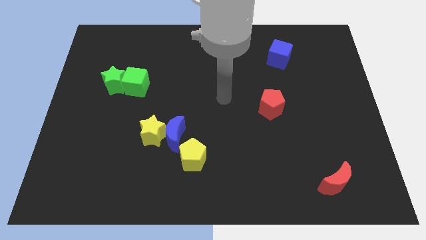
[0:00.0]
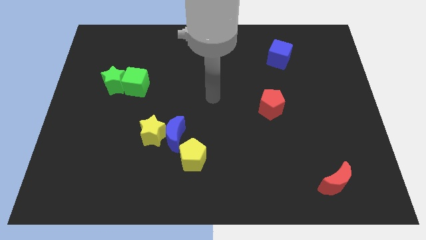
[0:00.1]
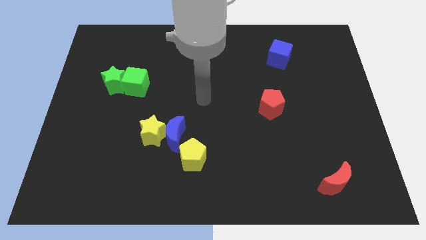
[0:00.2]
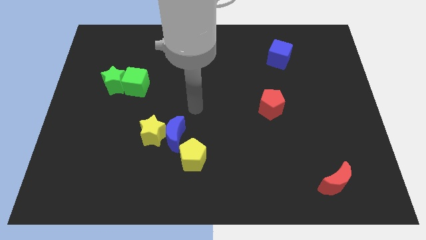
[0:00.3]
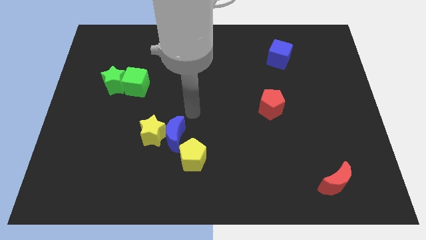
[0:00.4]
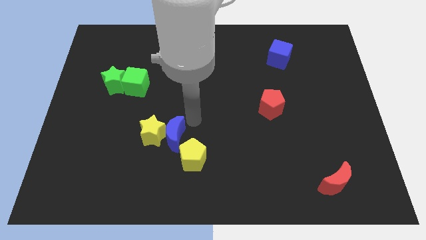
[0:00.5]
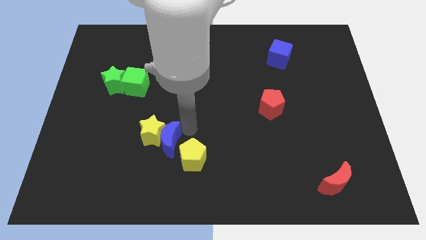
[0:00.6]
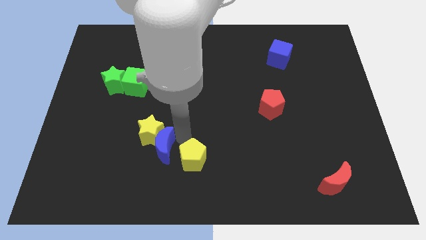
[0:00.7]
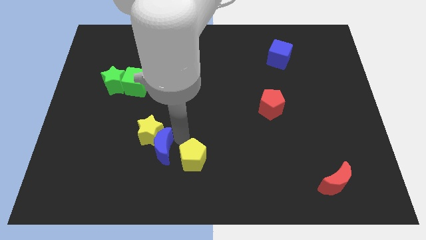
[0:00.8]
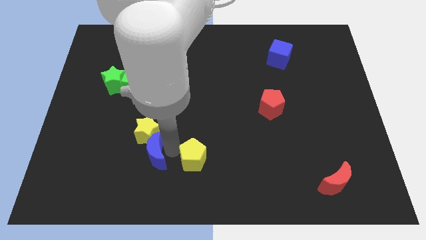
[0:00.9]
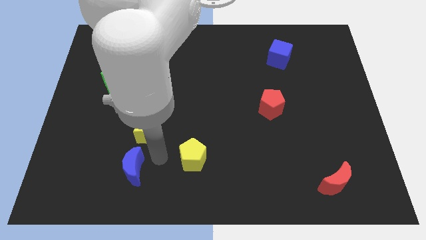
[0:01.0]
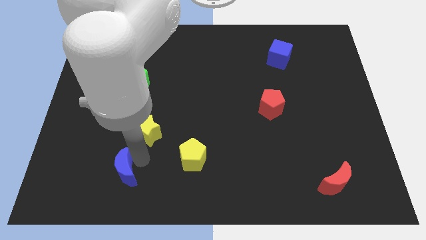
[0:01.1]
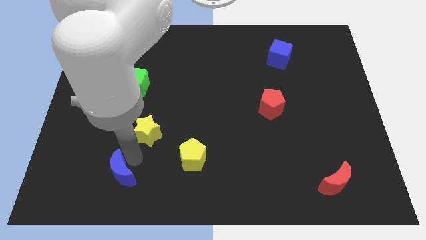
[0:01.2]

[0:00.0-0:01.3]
pull the yellow star apart from the blue moon

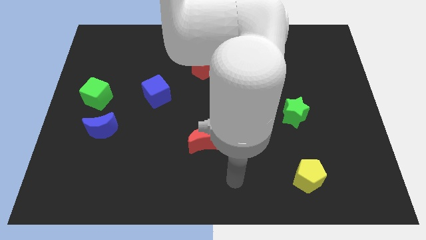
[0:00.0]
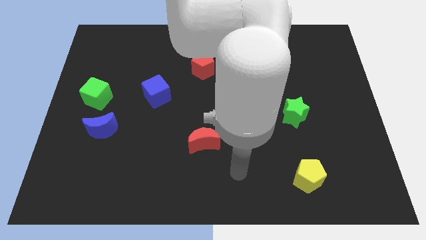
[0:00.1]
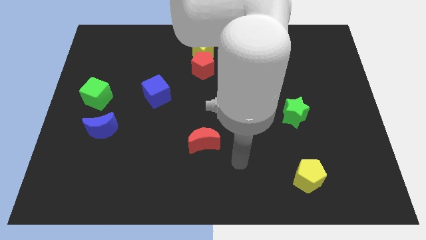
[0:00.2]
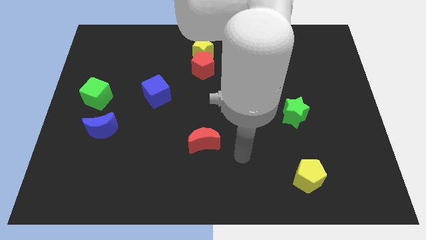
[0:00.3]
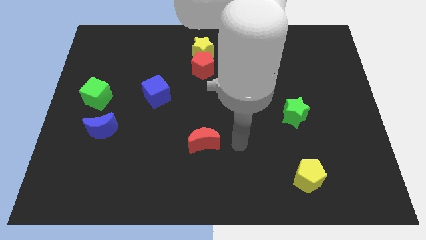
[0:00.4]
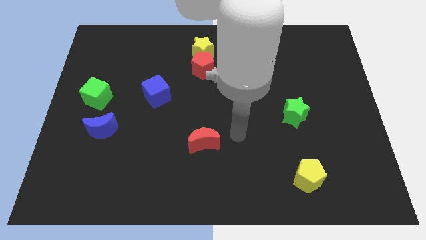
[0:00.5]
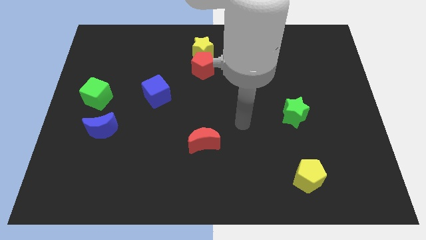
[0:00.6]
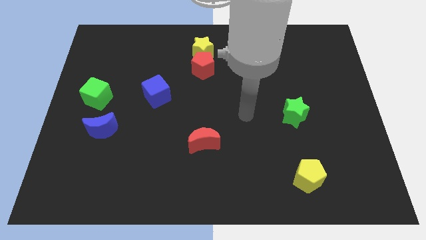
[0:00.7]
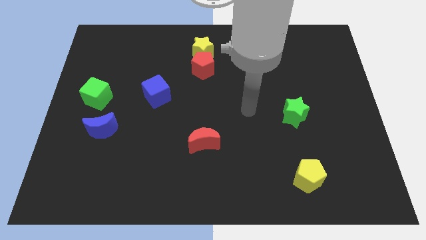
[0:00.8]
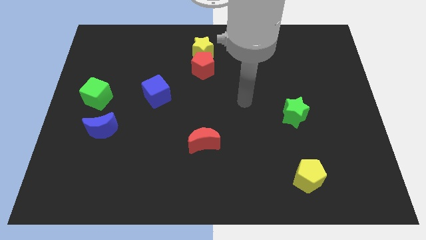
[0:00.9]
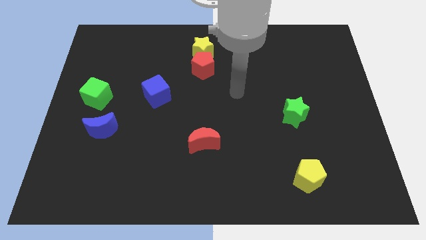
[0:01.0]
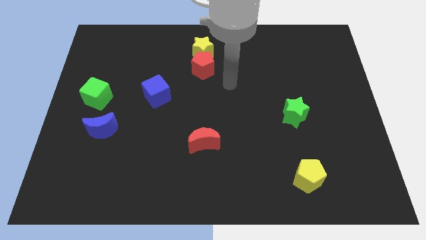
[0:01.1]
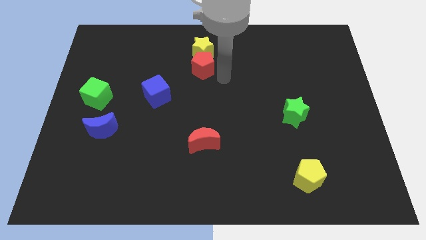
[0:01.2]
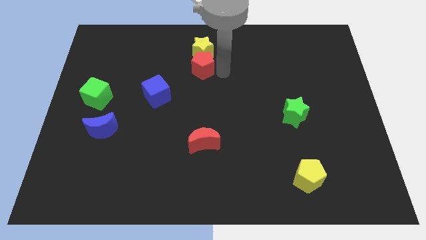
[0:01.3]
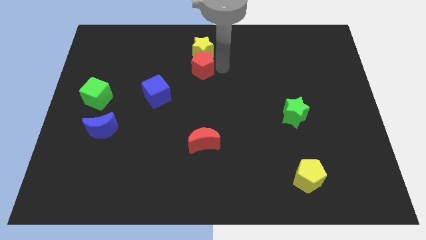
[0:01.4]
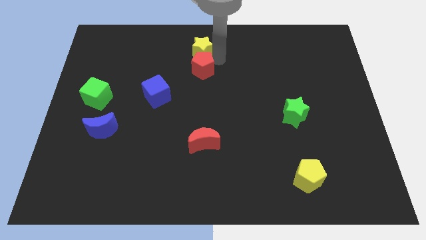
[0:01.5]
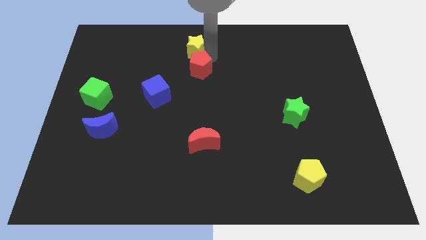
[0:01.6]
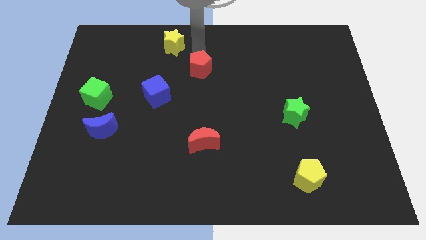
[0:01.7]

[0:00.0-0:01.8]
separate the red pentagon from the yellow star

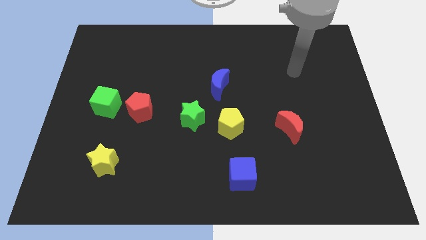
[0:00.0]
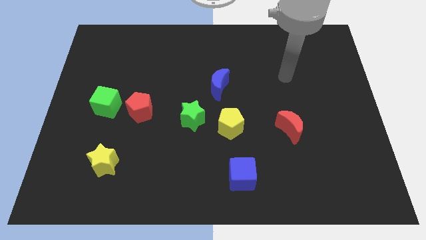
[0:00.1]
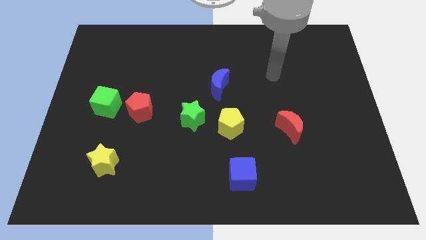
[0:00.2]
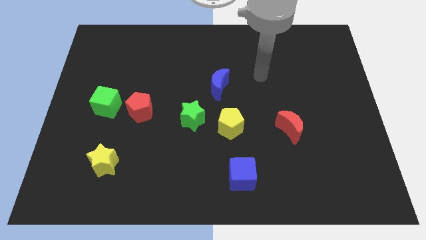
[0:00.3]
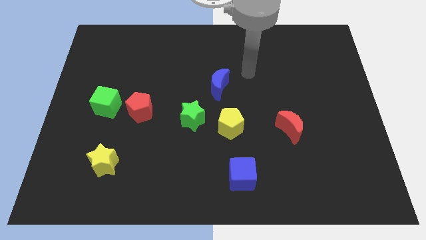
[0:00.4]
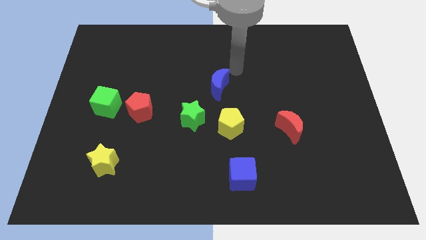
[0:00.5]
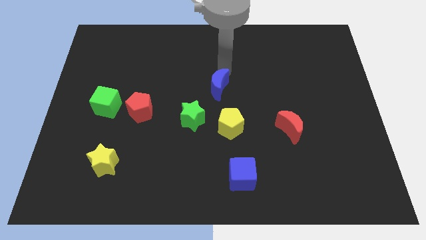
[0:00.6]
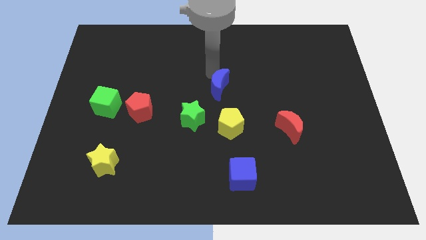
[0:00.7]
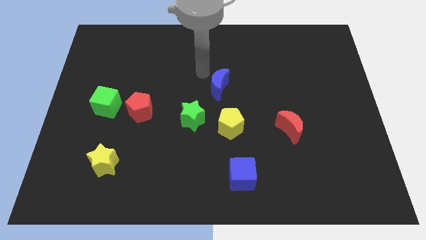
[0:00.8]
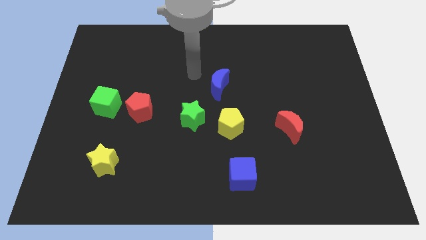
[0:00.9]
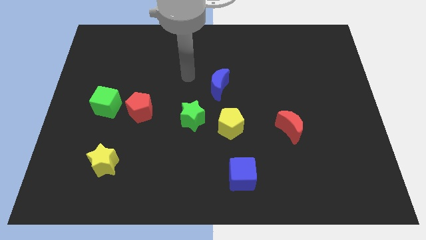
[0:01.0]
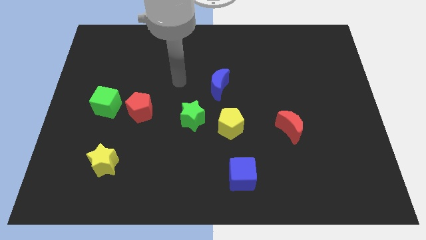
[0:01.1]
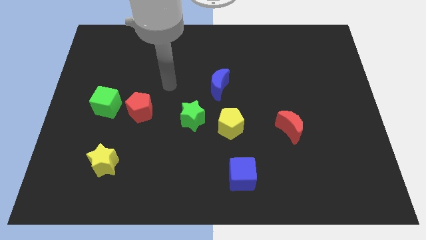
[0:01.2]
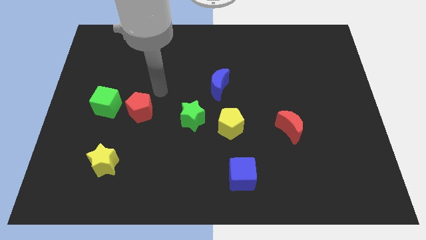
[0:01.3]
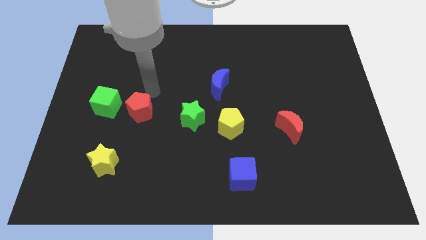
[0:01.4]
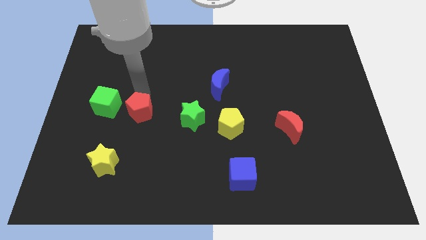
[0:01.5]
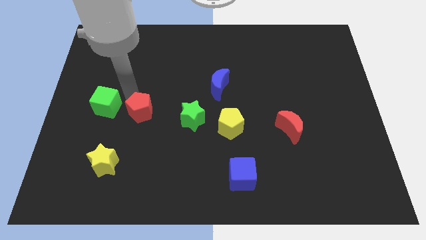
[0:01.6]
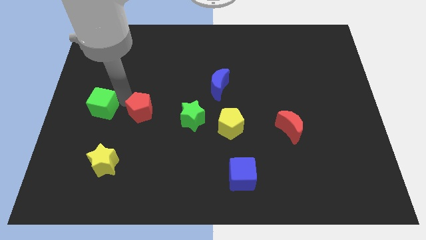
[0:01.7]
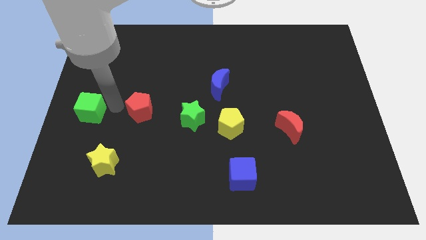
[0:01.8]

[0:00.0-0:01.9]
move the red pentagon away from the green cube

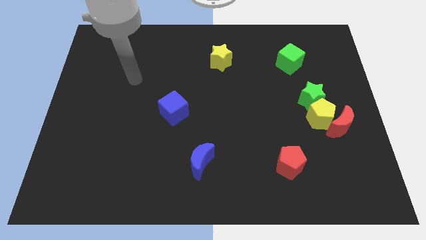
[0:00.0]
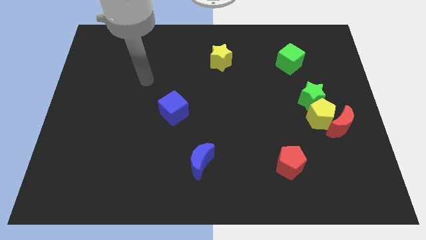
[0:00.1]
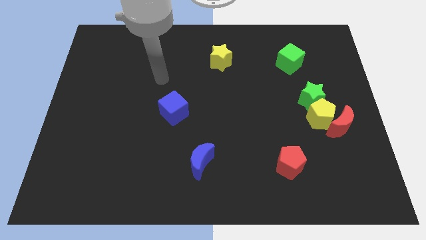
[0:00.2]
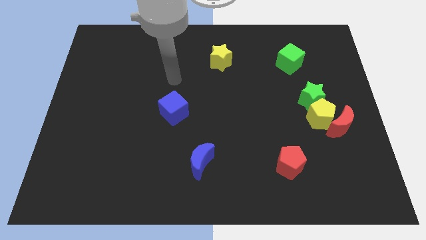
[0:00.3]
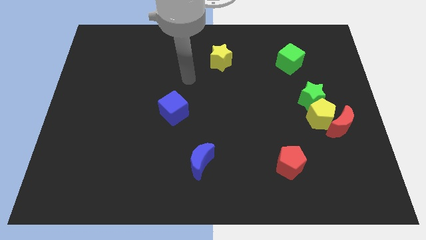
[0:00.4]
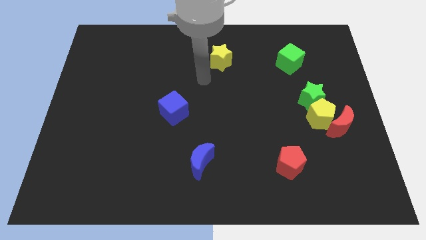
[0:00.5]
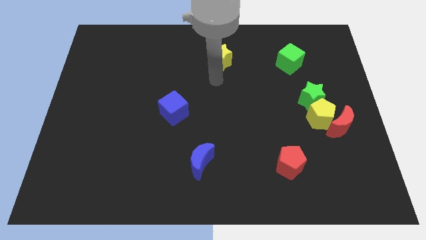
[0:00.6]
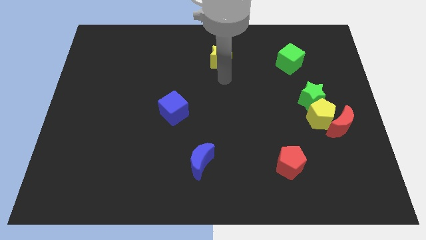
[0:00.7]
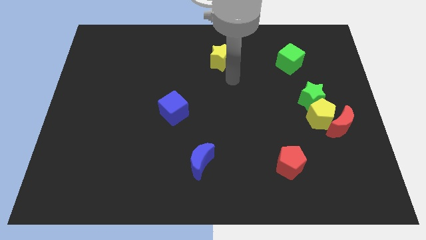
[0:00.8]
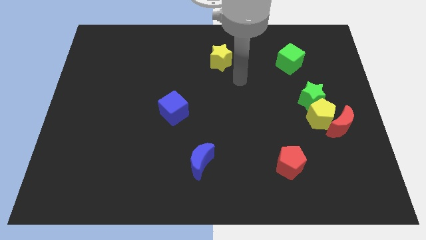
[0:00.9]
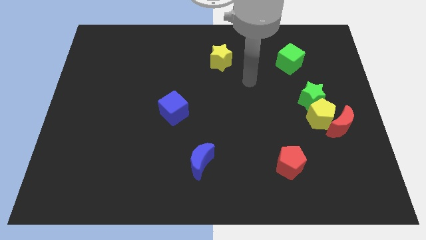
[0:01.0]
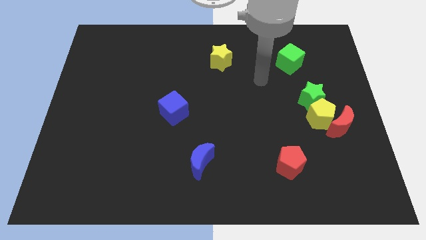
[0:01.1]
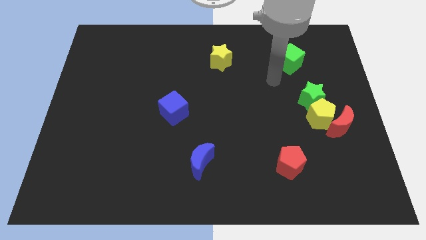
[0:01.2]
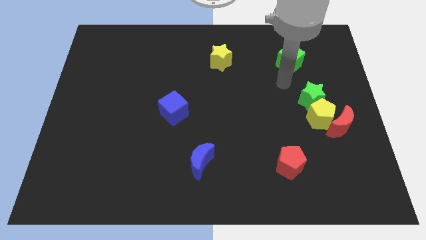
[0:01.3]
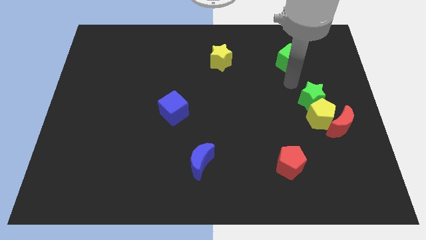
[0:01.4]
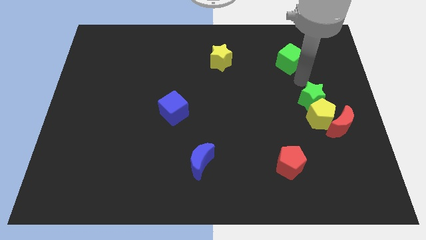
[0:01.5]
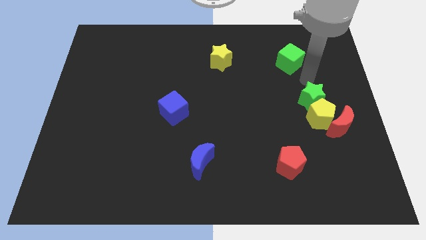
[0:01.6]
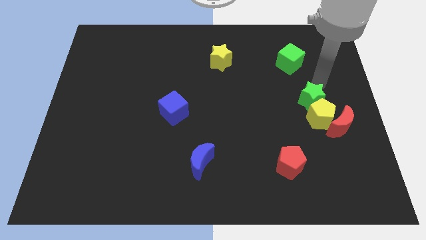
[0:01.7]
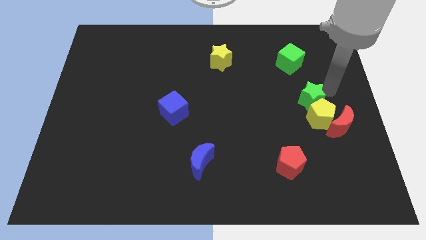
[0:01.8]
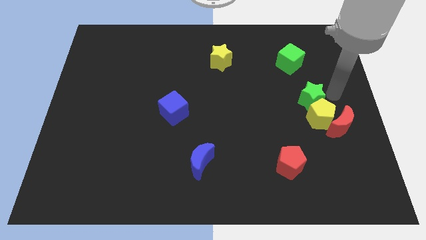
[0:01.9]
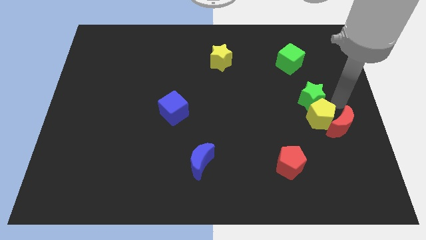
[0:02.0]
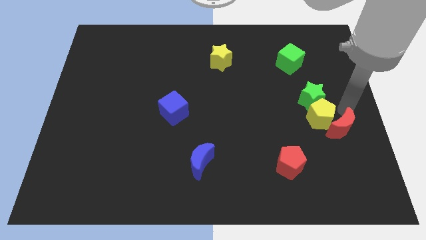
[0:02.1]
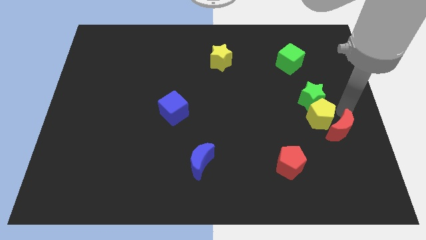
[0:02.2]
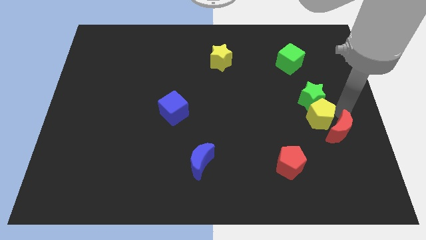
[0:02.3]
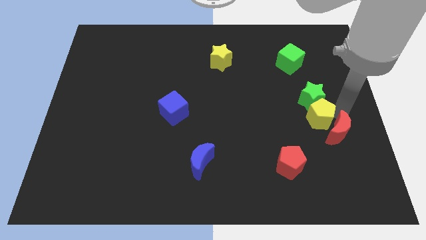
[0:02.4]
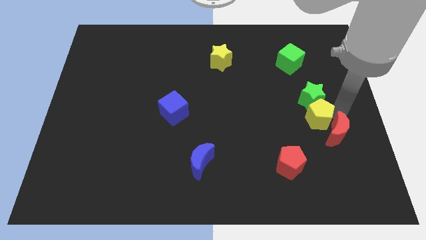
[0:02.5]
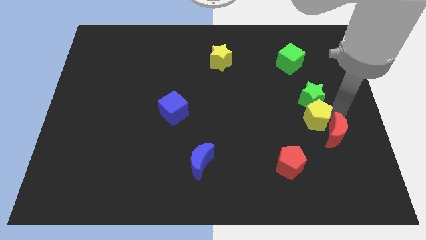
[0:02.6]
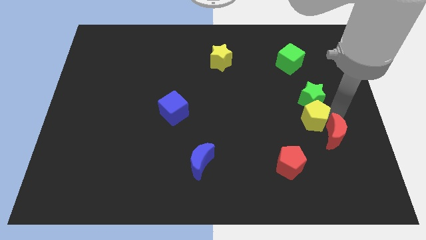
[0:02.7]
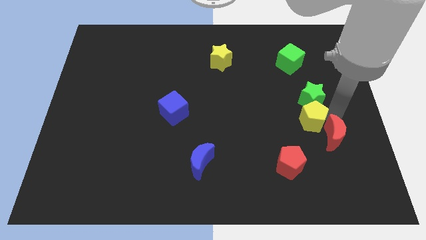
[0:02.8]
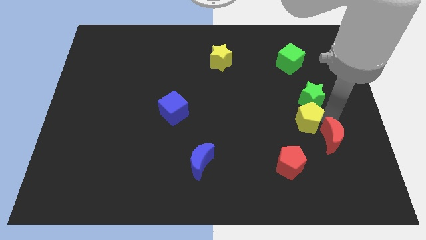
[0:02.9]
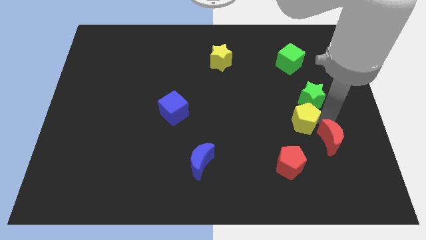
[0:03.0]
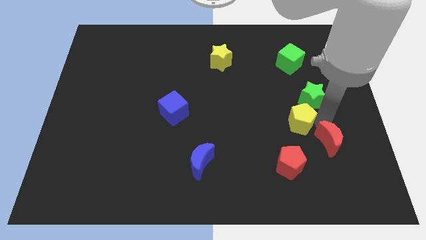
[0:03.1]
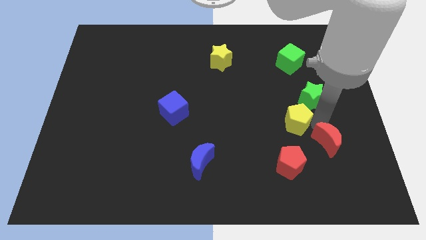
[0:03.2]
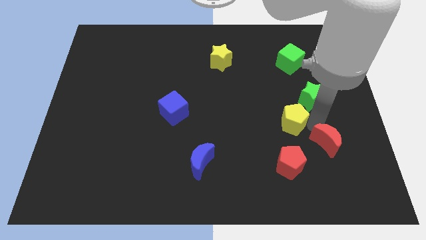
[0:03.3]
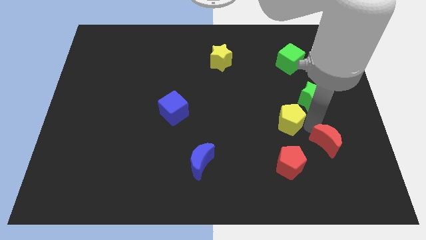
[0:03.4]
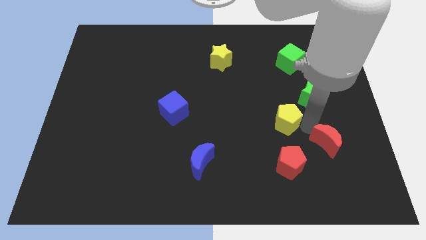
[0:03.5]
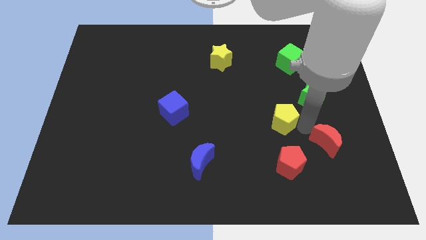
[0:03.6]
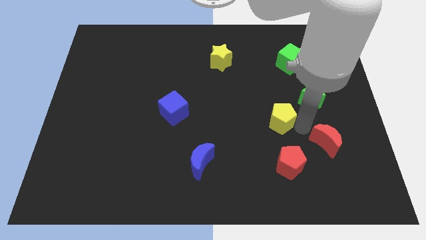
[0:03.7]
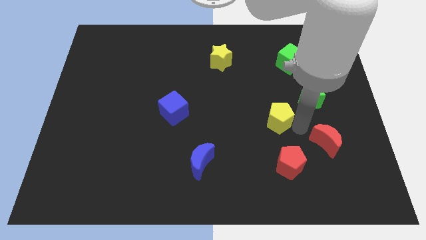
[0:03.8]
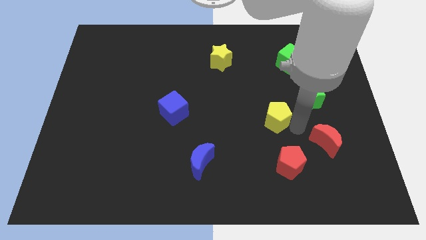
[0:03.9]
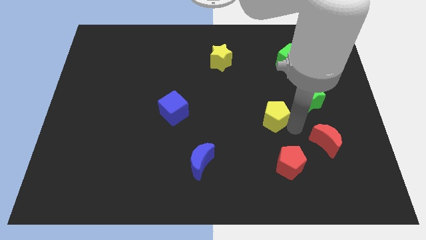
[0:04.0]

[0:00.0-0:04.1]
move the yellow pentagon away from the red moon and green star

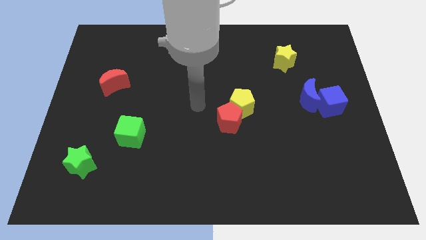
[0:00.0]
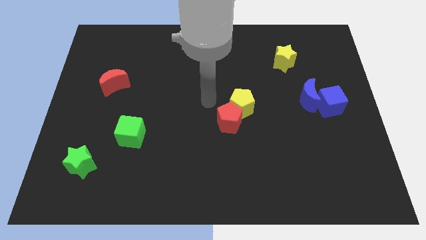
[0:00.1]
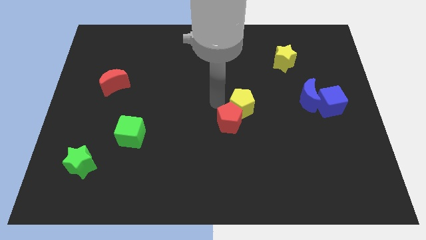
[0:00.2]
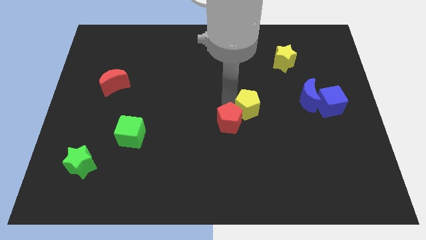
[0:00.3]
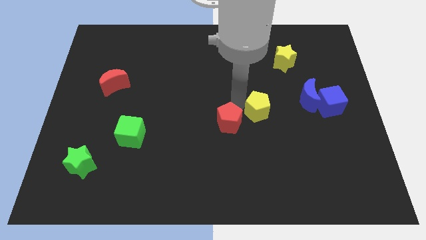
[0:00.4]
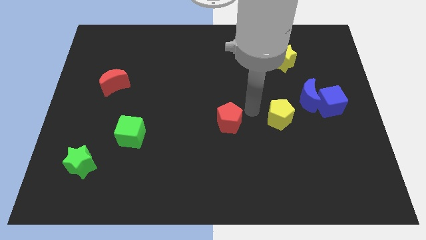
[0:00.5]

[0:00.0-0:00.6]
pull the red pentagon apart from the yellow pentagon
